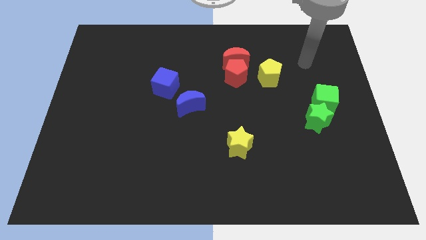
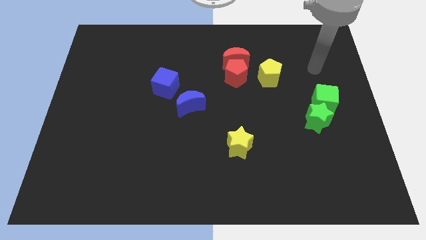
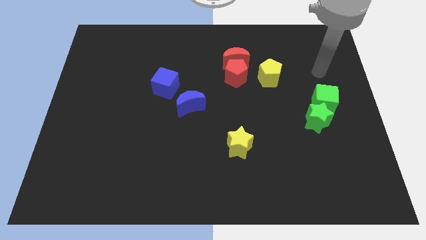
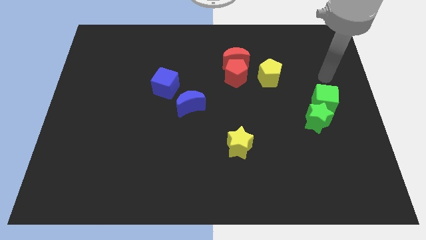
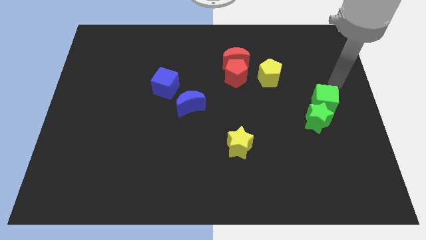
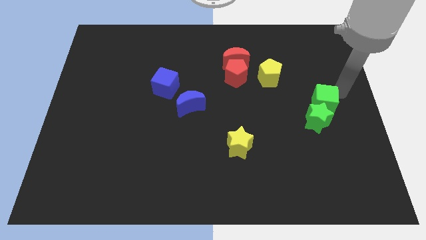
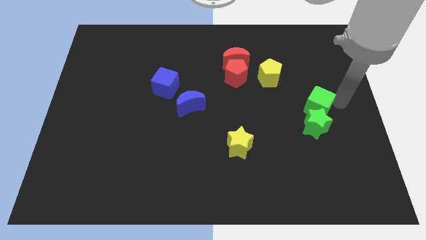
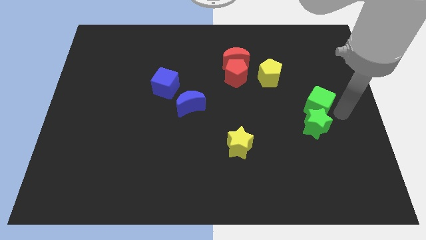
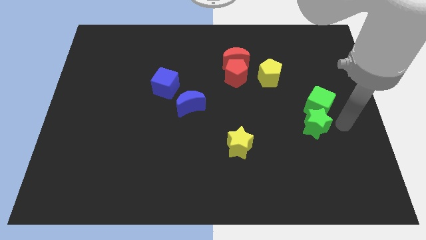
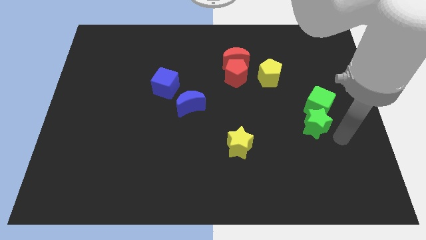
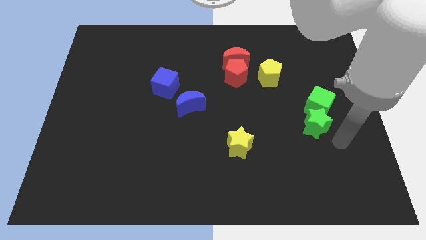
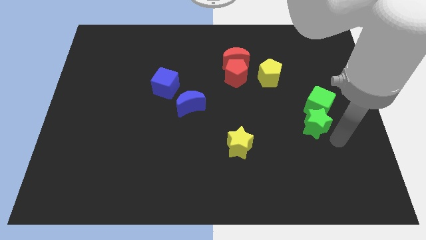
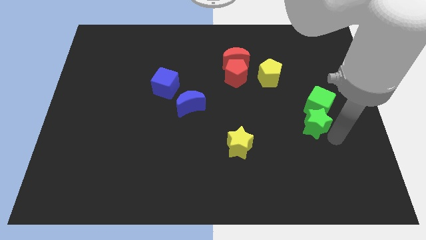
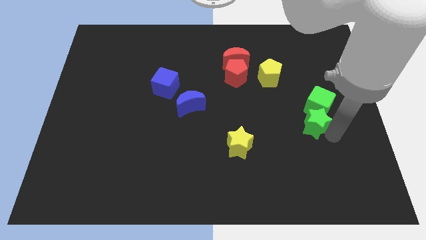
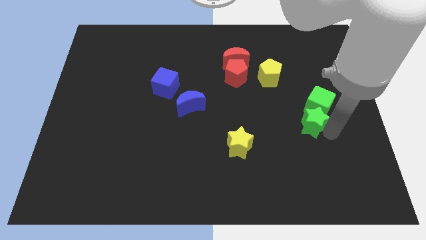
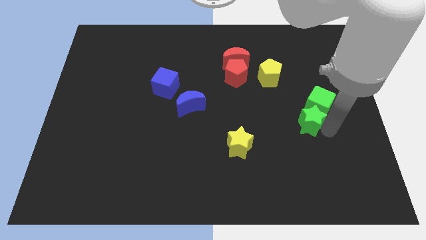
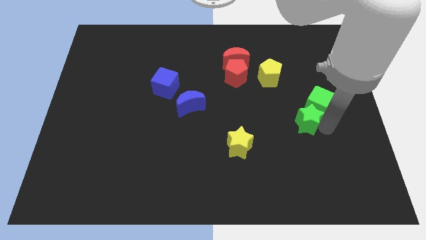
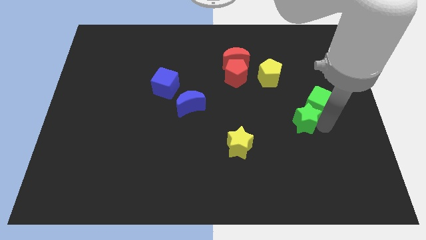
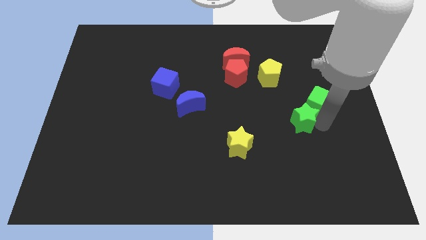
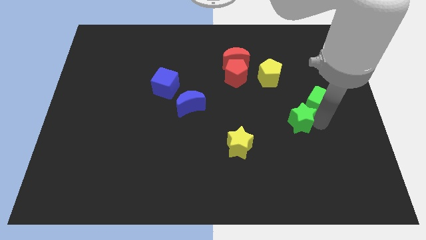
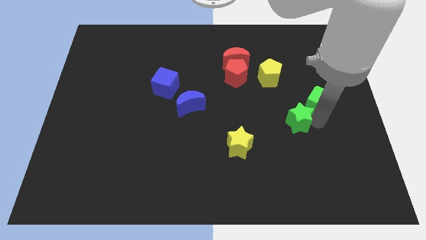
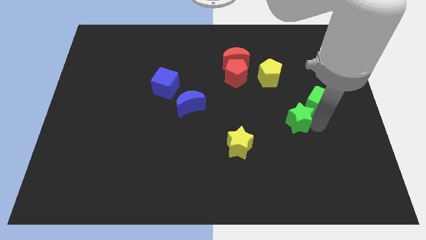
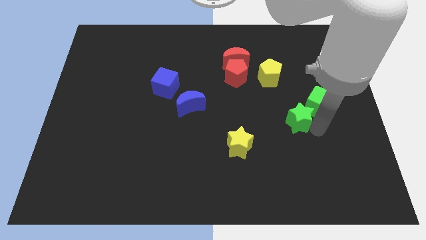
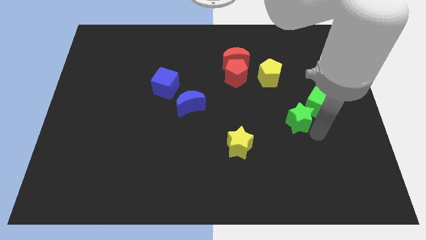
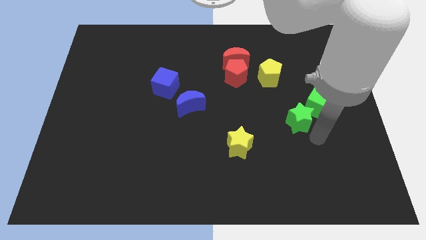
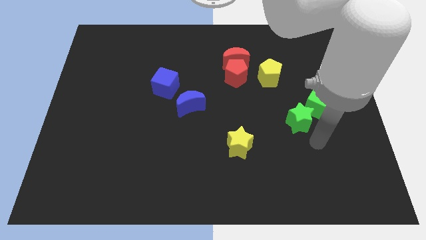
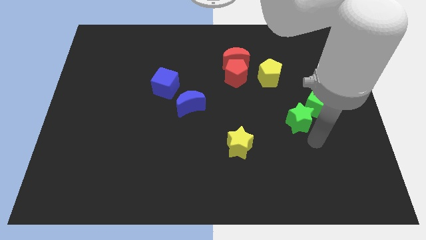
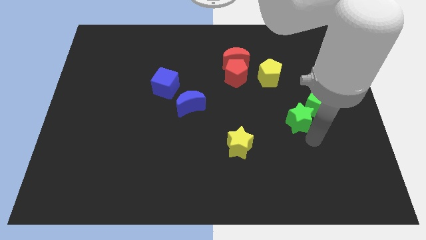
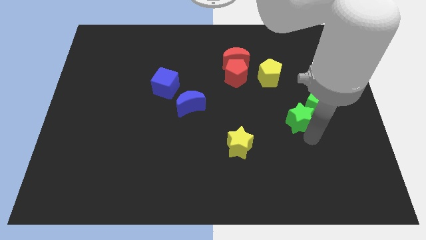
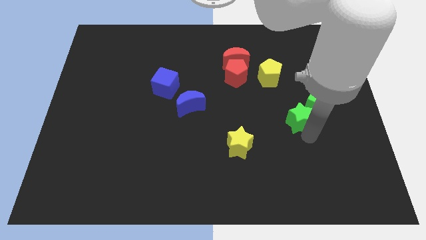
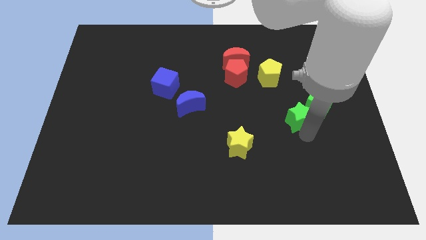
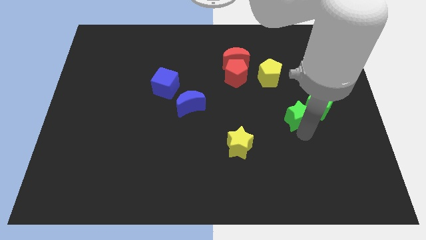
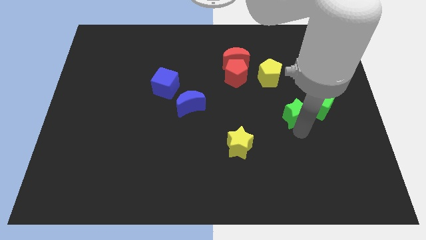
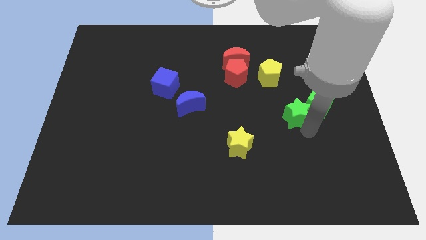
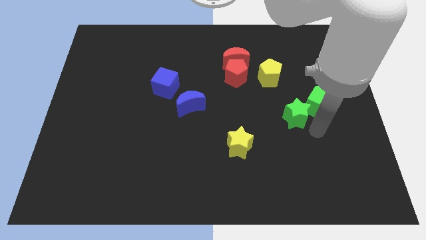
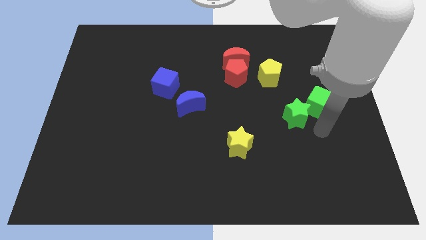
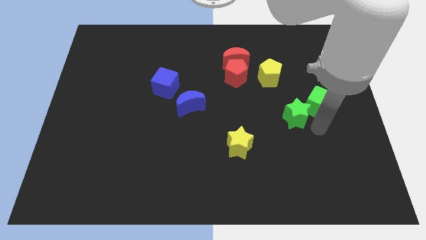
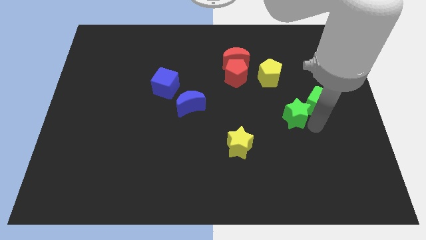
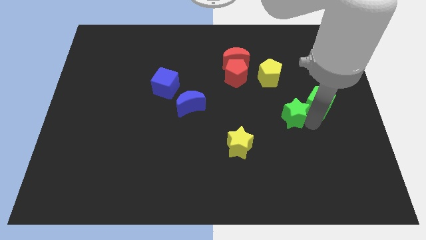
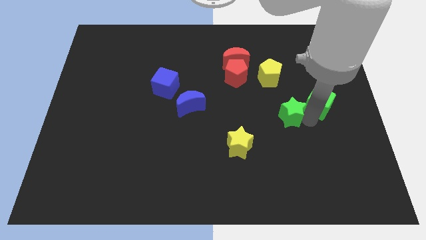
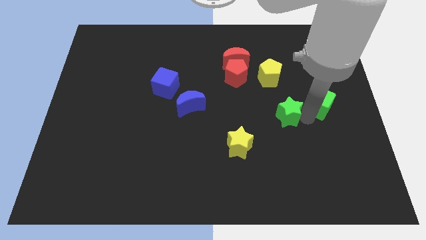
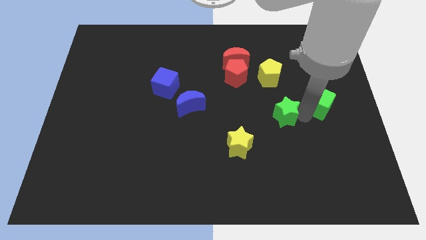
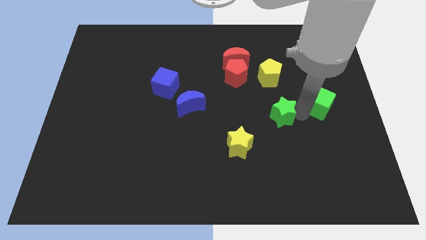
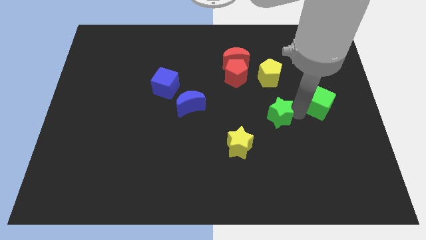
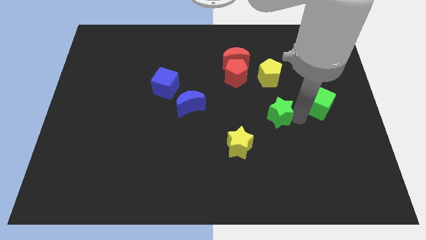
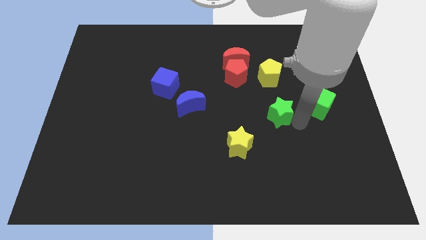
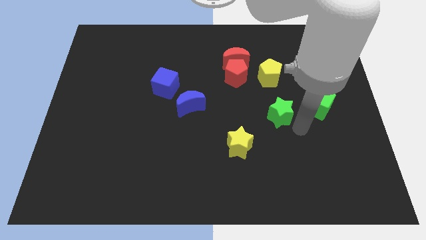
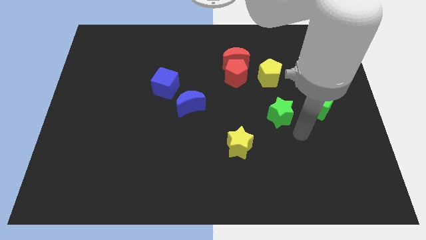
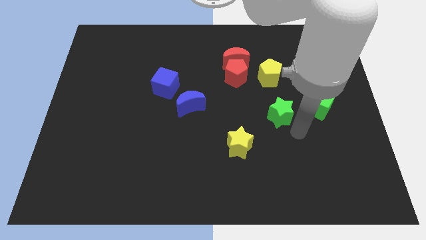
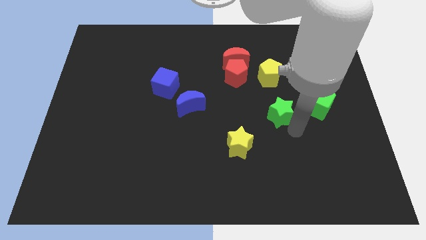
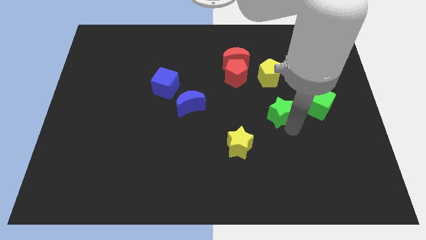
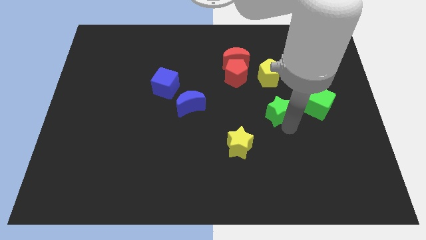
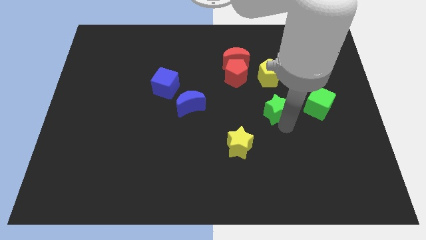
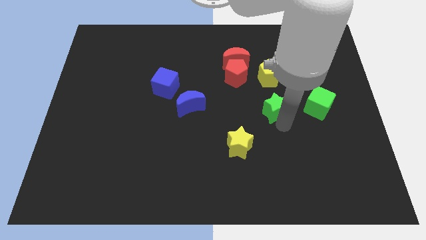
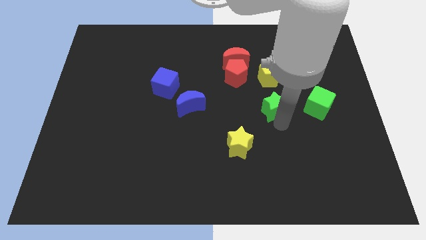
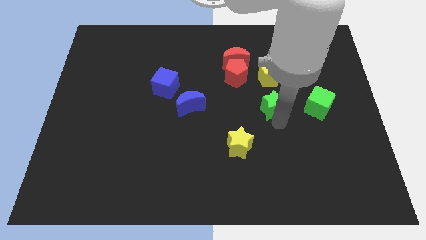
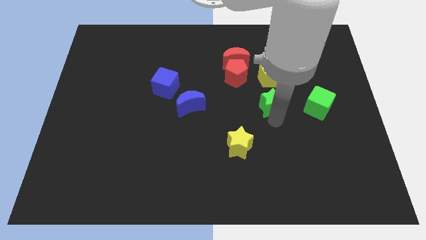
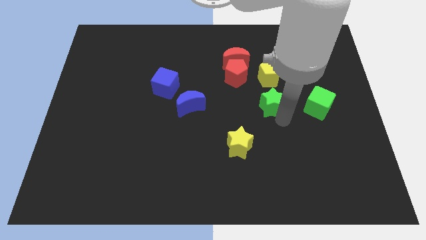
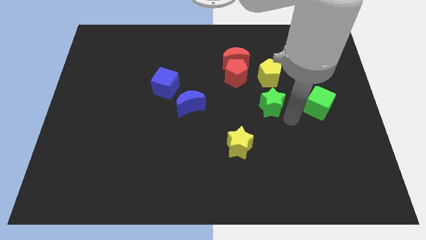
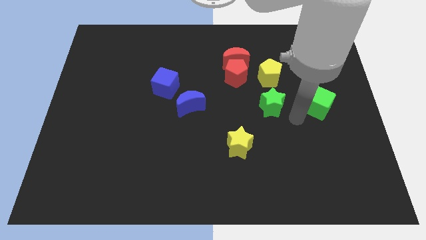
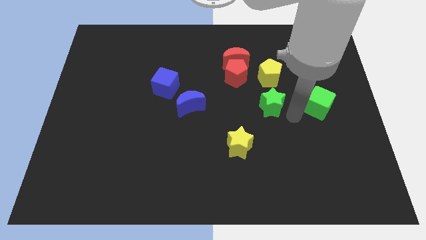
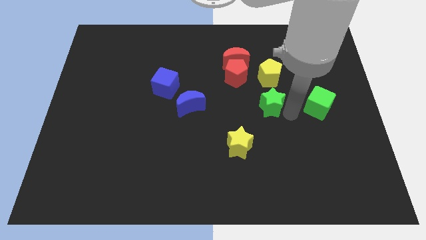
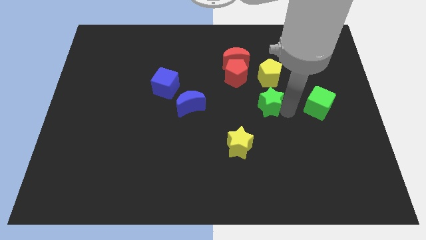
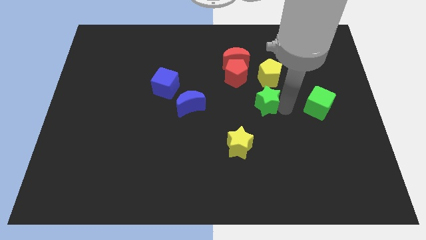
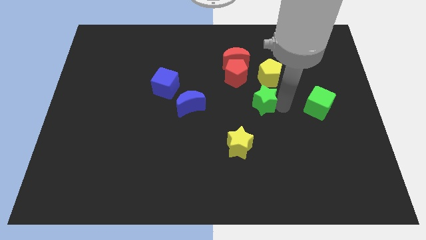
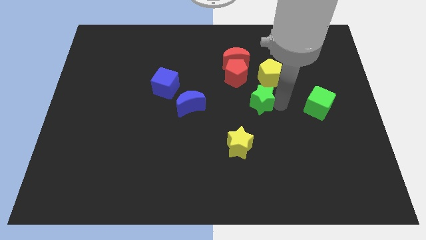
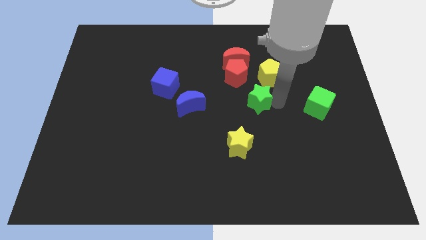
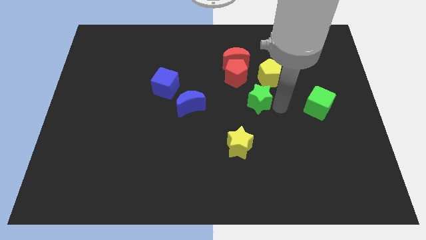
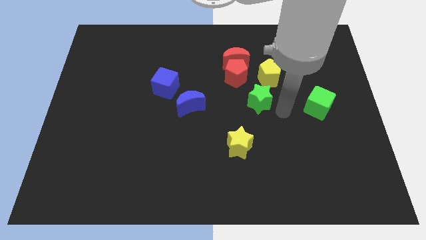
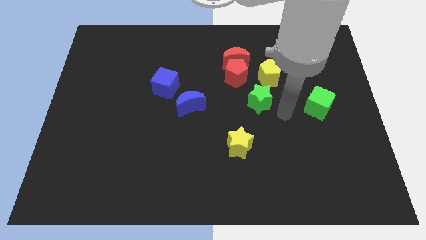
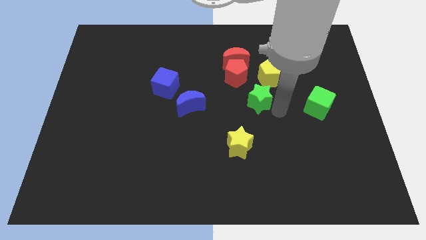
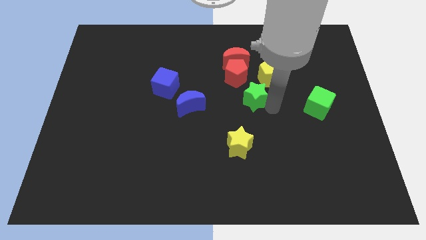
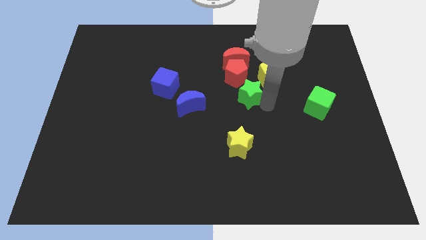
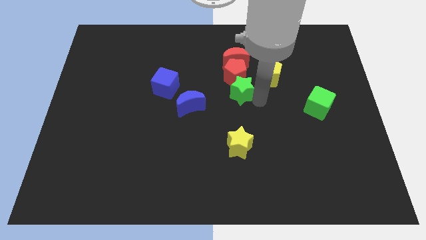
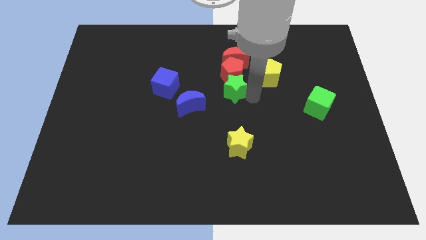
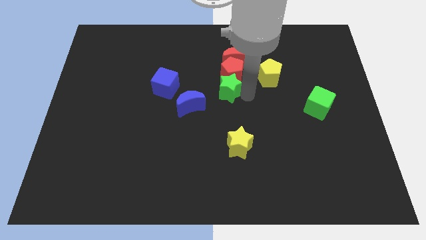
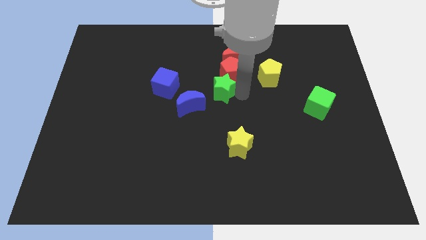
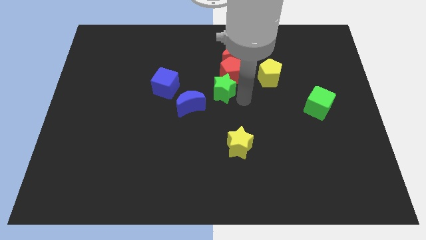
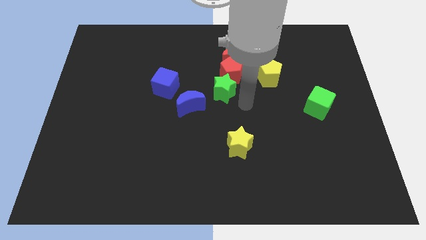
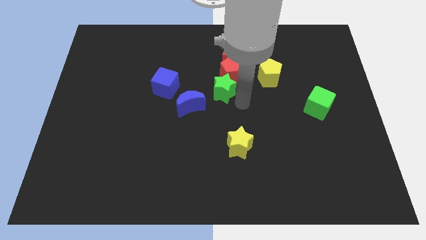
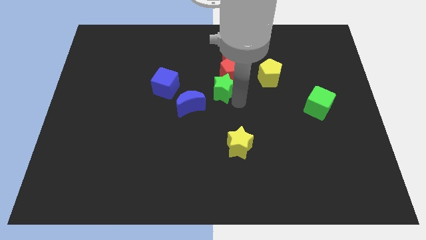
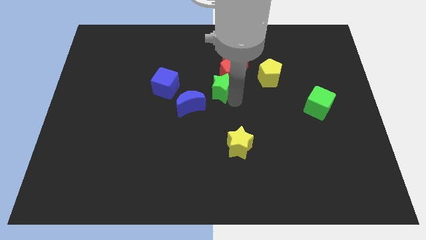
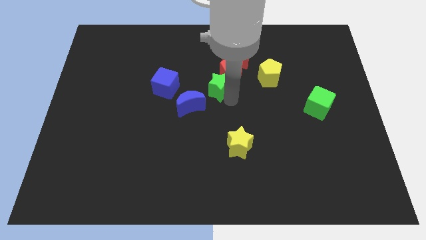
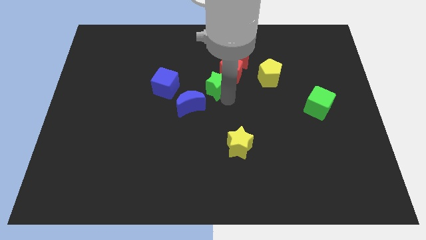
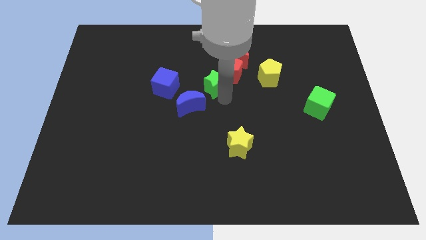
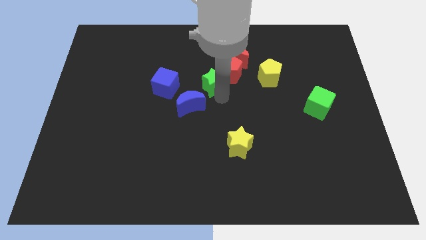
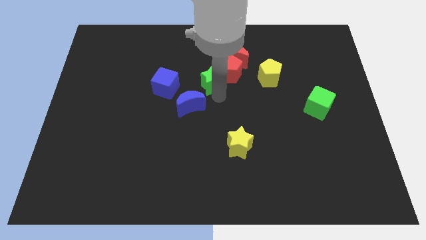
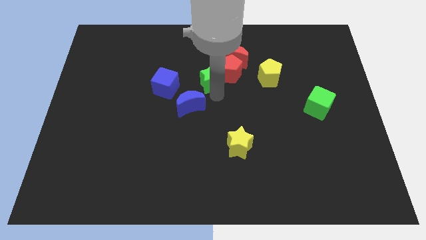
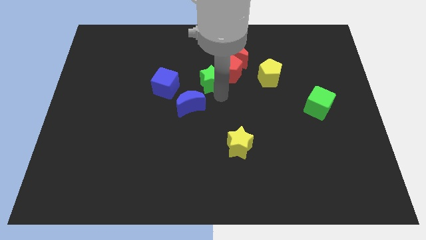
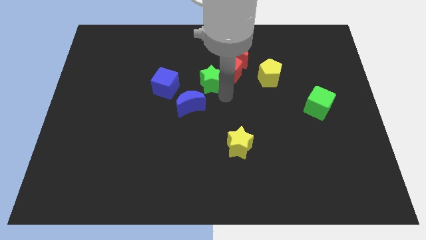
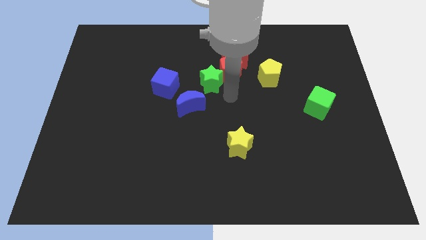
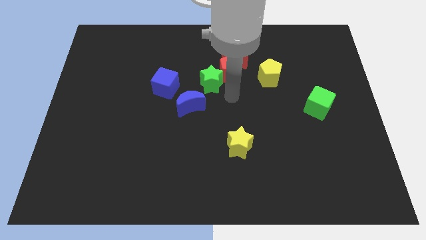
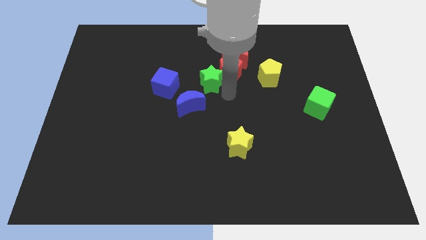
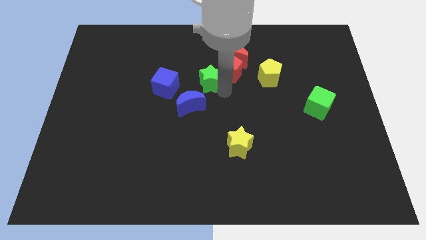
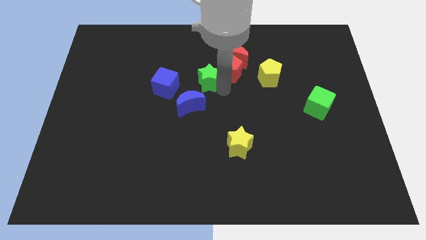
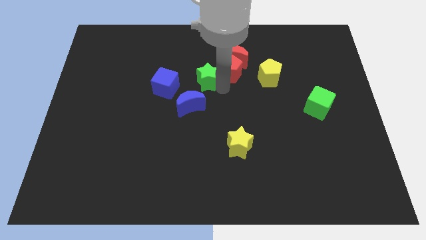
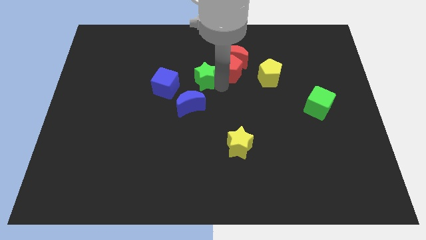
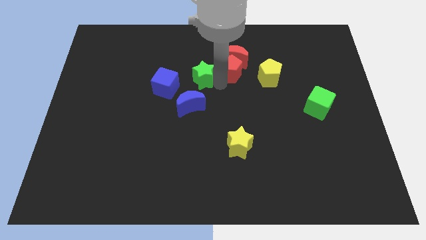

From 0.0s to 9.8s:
put the green star to the top right side of the blue cube
